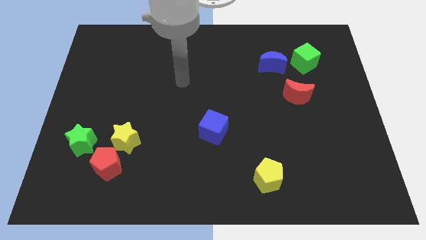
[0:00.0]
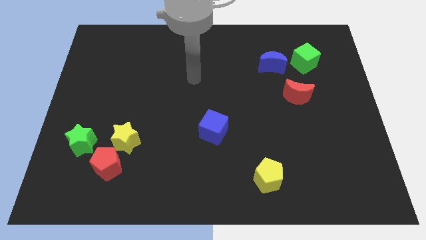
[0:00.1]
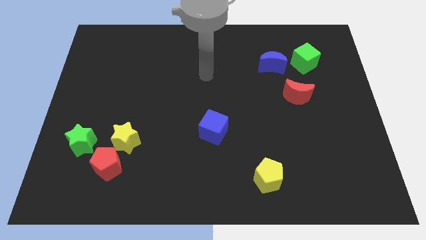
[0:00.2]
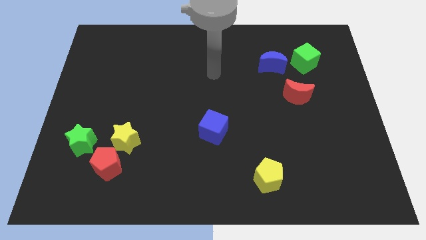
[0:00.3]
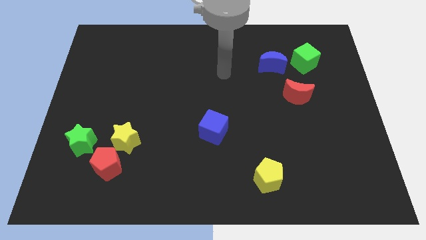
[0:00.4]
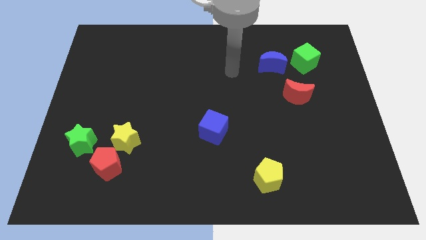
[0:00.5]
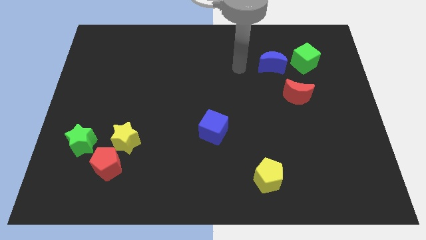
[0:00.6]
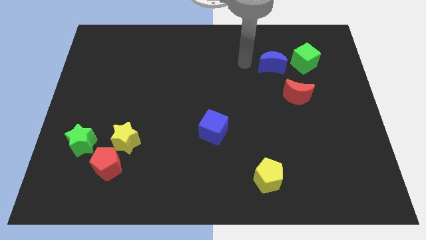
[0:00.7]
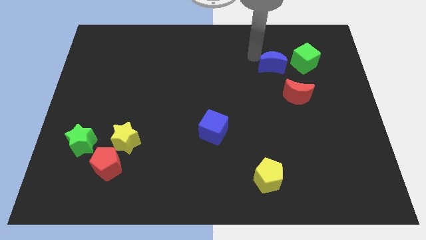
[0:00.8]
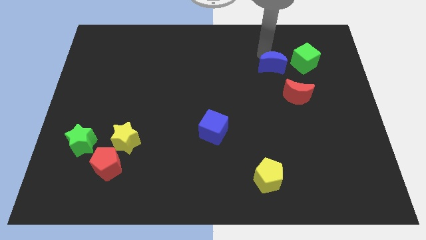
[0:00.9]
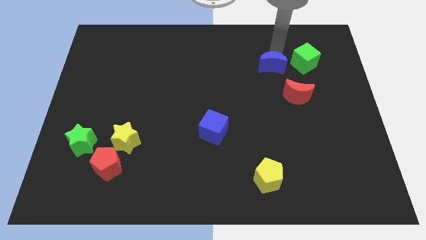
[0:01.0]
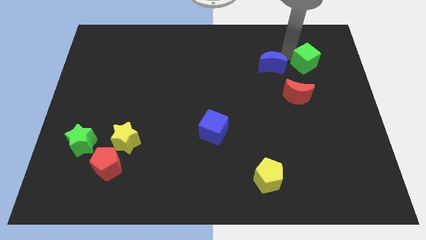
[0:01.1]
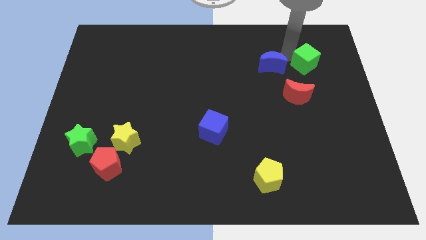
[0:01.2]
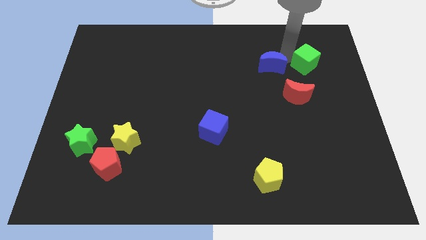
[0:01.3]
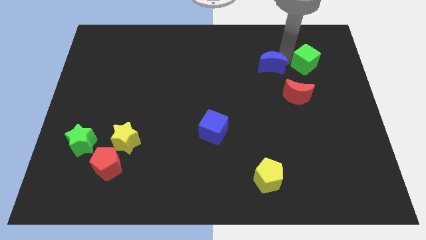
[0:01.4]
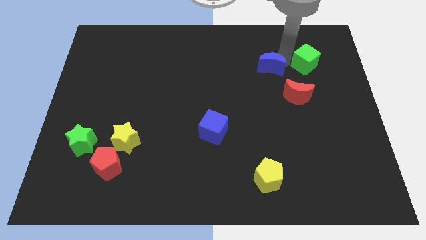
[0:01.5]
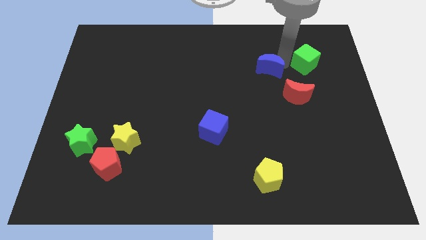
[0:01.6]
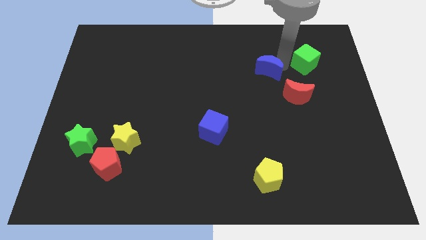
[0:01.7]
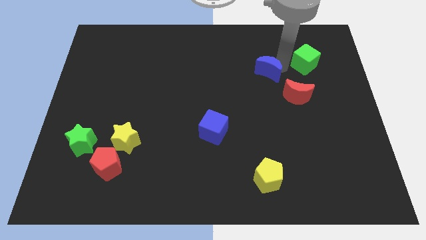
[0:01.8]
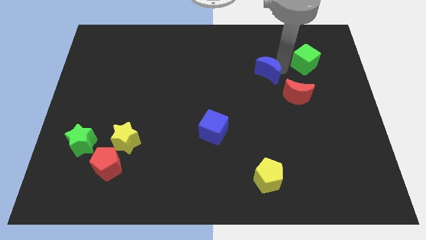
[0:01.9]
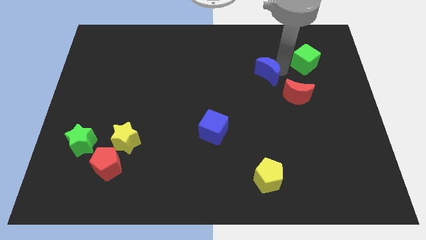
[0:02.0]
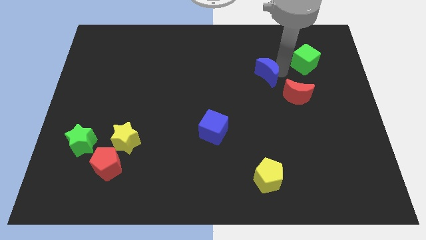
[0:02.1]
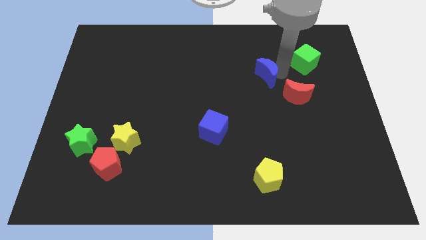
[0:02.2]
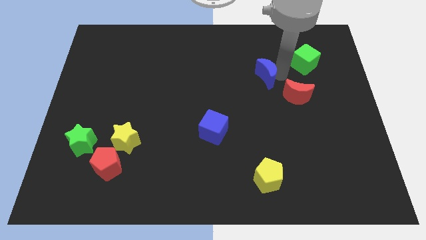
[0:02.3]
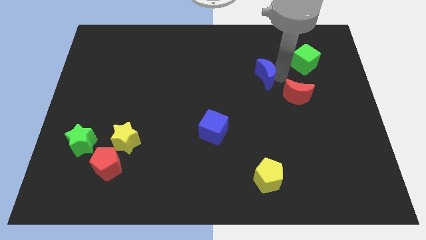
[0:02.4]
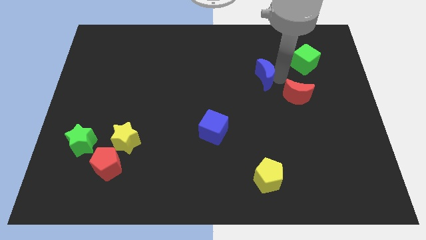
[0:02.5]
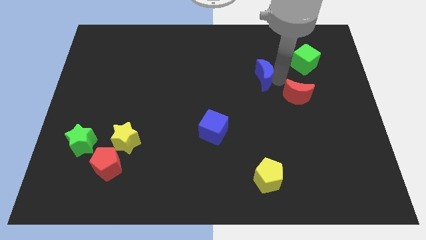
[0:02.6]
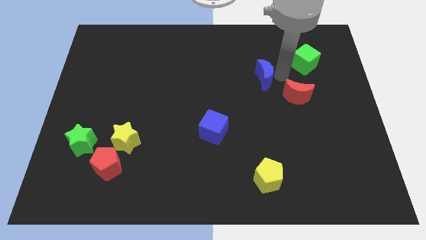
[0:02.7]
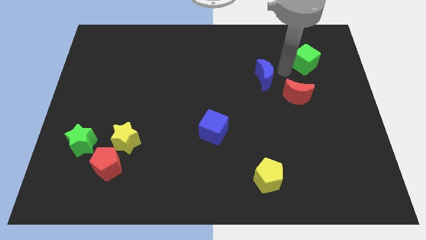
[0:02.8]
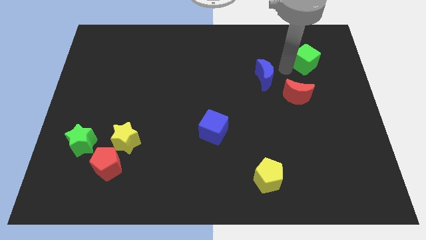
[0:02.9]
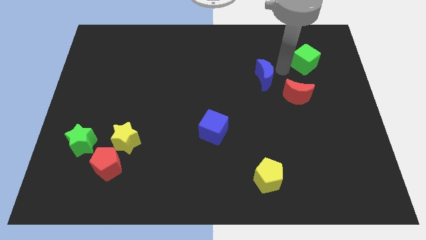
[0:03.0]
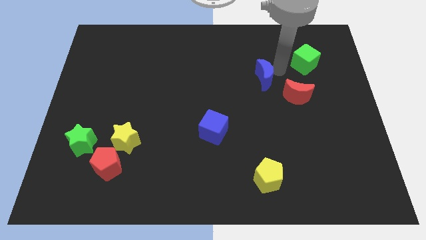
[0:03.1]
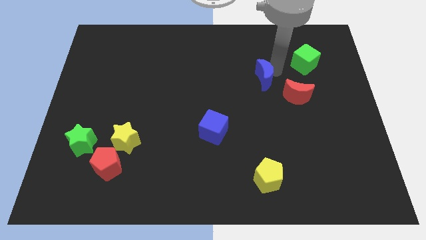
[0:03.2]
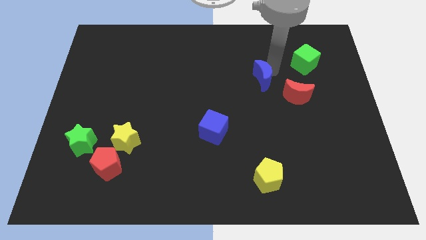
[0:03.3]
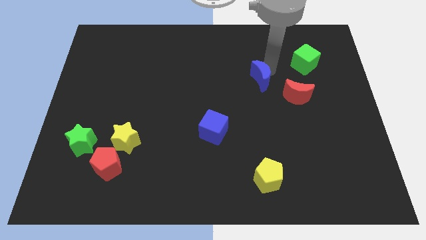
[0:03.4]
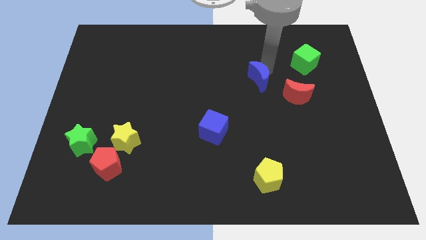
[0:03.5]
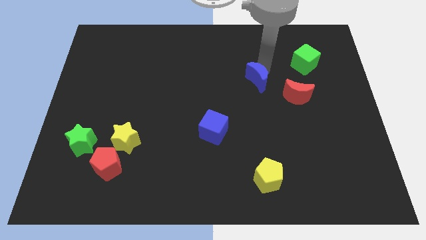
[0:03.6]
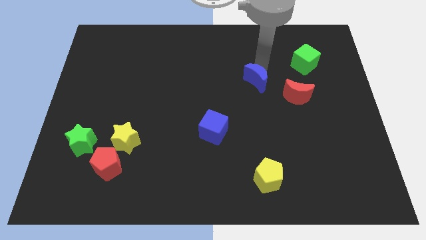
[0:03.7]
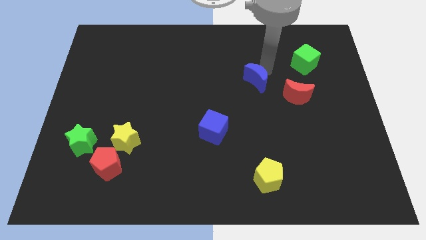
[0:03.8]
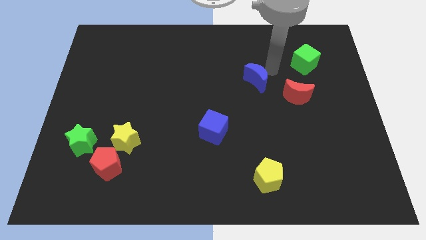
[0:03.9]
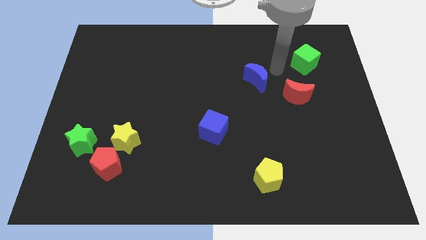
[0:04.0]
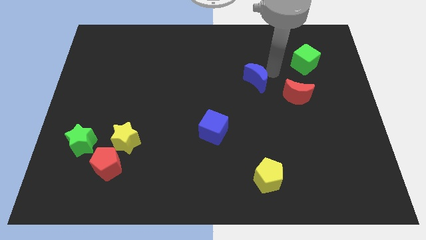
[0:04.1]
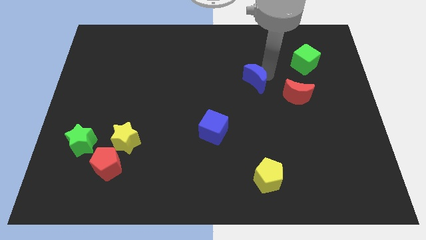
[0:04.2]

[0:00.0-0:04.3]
slide the blue moon downwards and left a bit

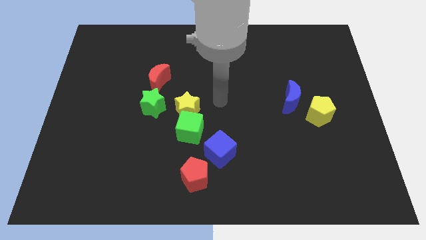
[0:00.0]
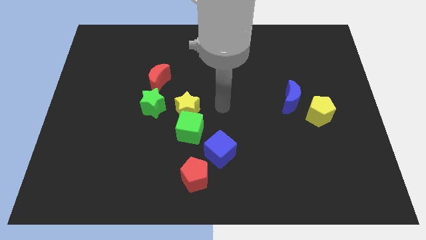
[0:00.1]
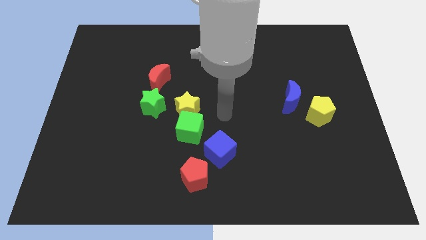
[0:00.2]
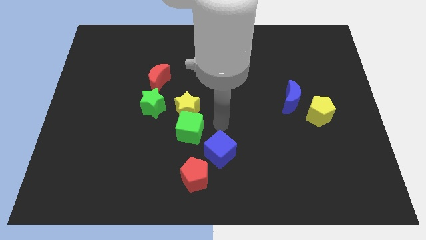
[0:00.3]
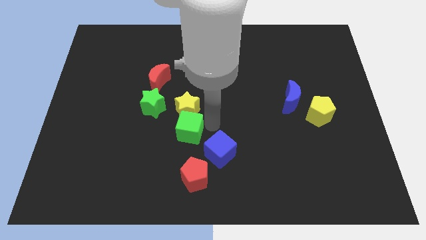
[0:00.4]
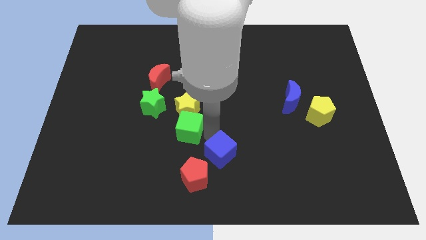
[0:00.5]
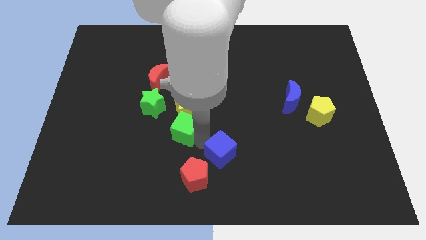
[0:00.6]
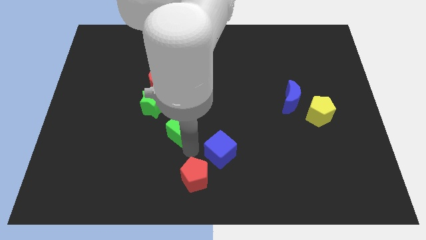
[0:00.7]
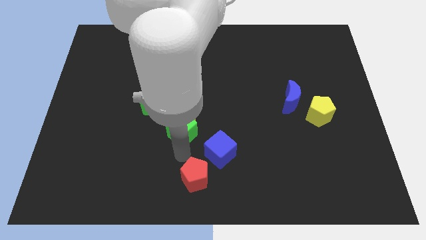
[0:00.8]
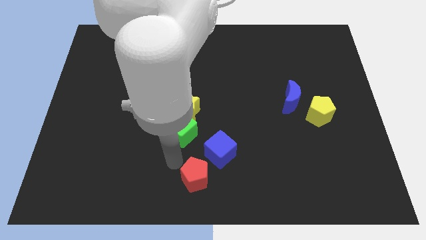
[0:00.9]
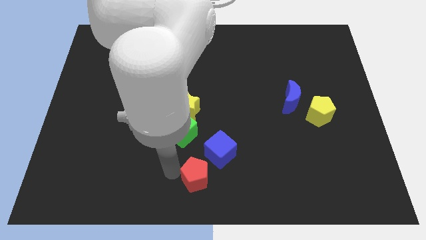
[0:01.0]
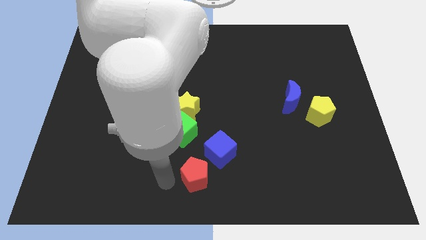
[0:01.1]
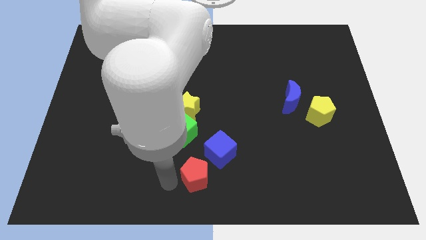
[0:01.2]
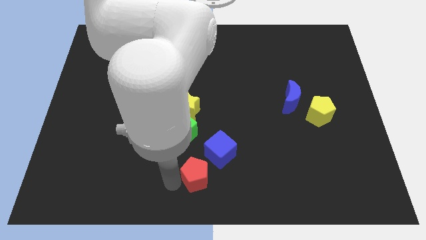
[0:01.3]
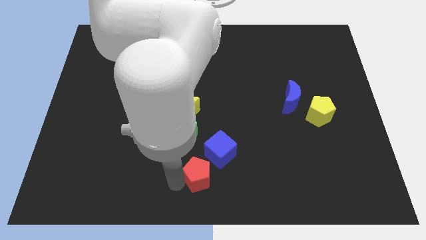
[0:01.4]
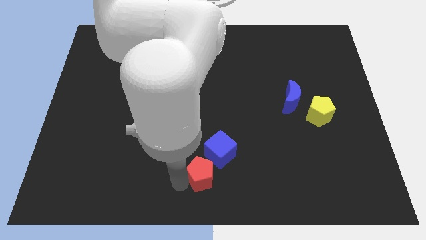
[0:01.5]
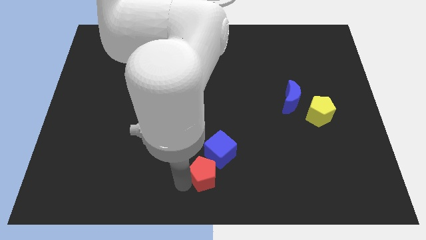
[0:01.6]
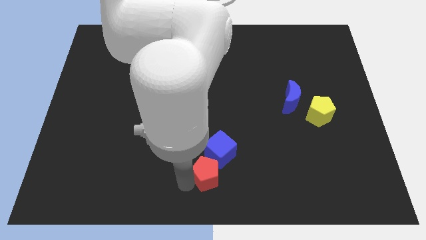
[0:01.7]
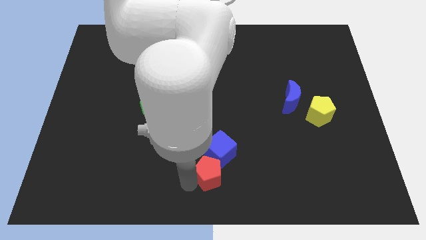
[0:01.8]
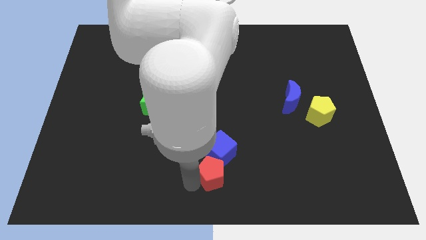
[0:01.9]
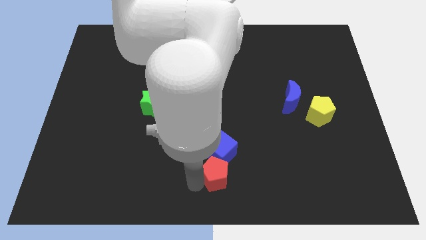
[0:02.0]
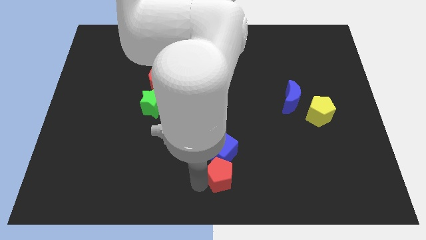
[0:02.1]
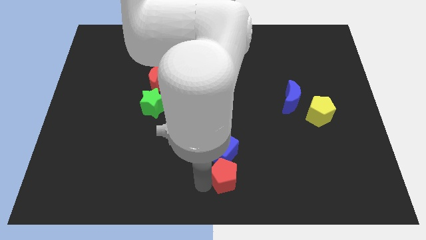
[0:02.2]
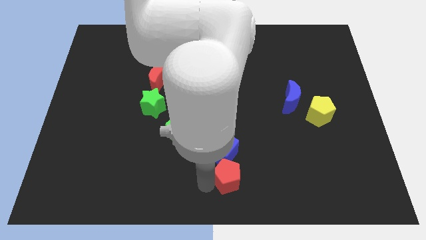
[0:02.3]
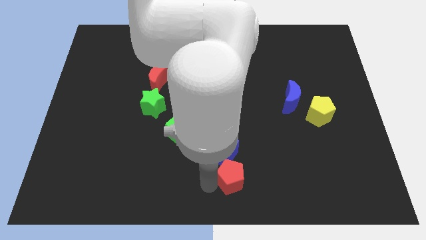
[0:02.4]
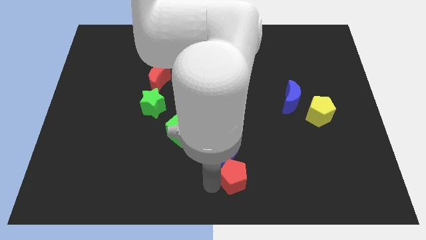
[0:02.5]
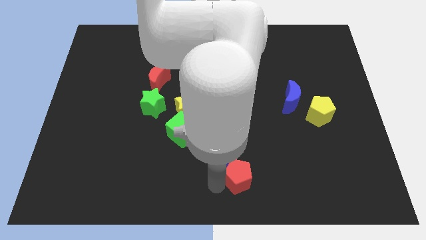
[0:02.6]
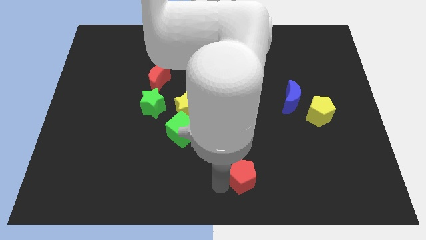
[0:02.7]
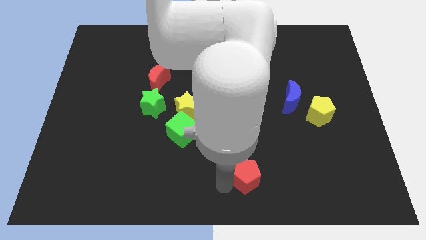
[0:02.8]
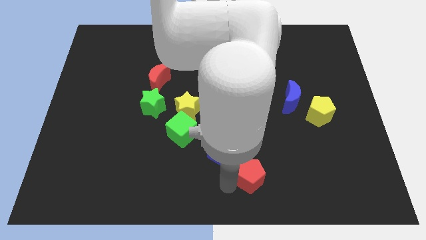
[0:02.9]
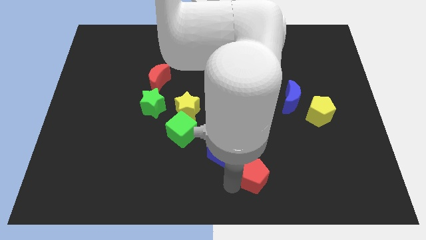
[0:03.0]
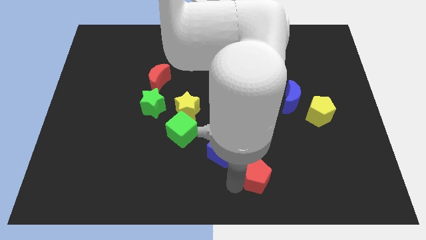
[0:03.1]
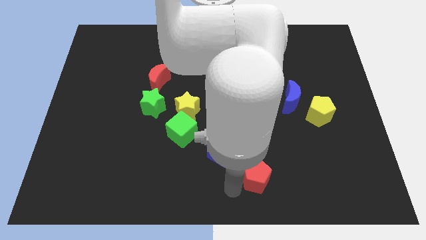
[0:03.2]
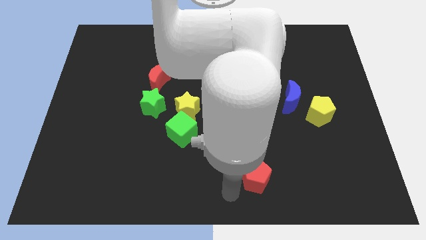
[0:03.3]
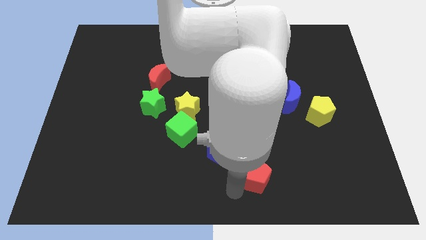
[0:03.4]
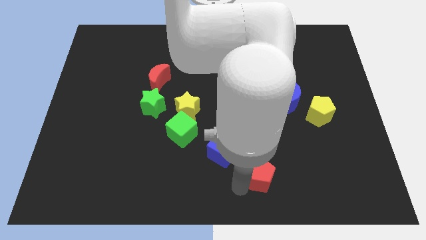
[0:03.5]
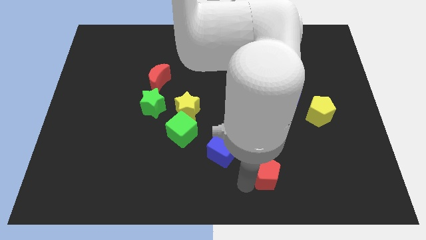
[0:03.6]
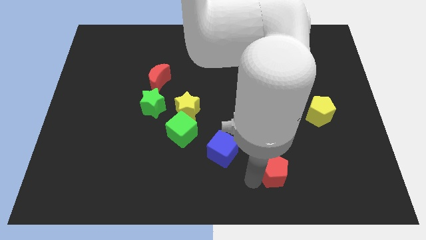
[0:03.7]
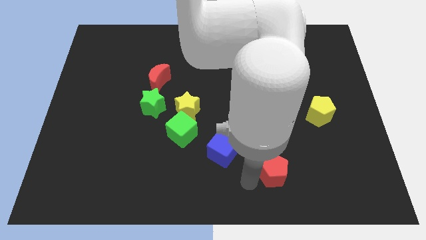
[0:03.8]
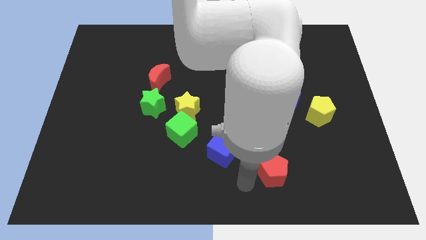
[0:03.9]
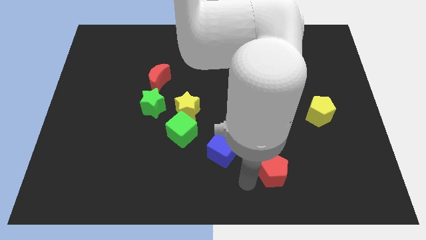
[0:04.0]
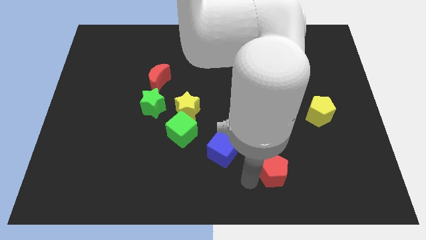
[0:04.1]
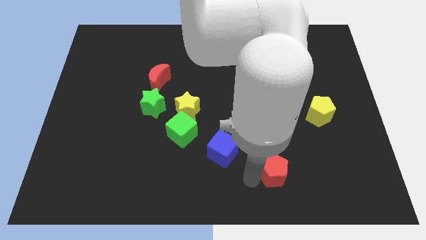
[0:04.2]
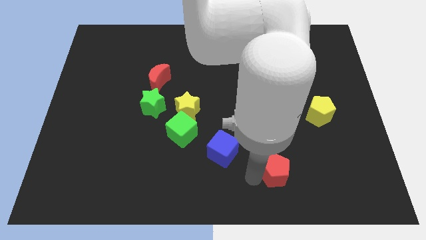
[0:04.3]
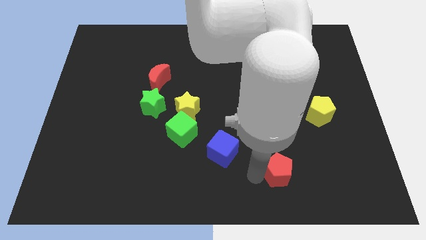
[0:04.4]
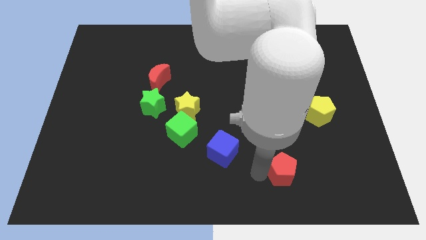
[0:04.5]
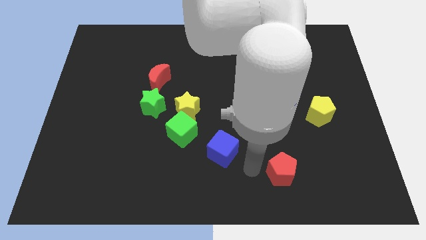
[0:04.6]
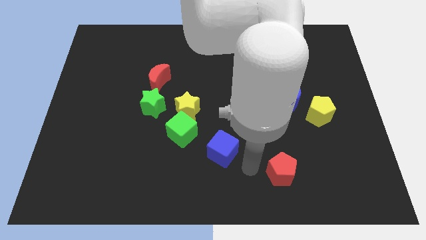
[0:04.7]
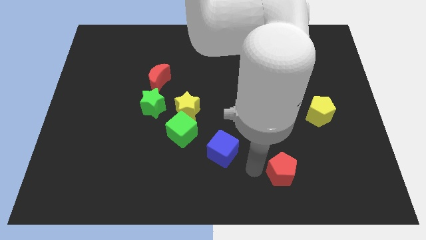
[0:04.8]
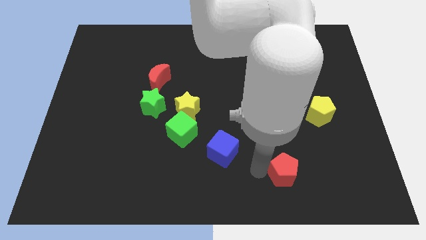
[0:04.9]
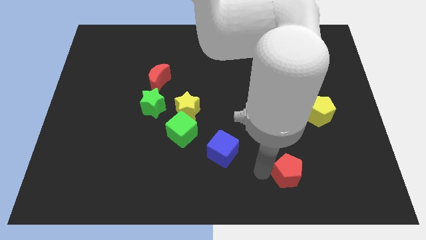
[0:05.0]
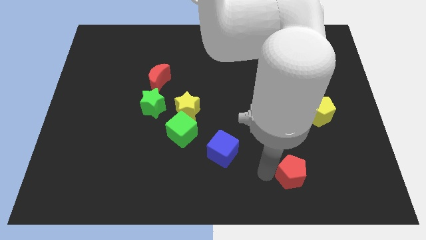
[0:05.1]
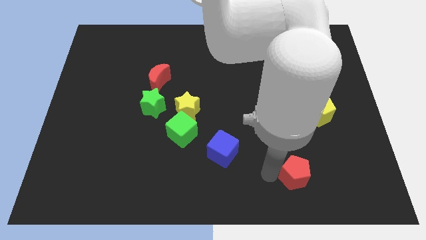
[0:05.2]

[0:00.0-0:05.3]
move the red pentagon right
